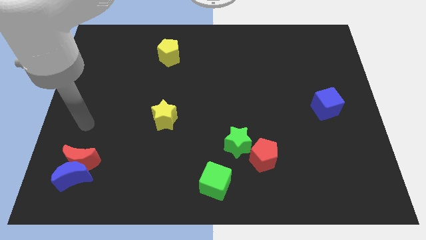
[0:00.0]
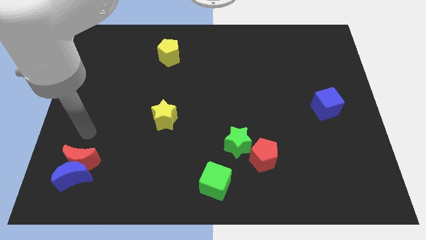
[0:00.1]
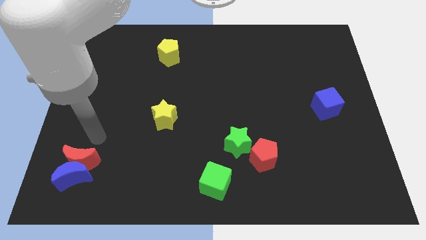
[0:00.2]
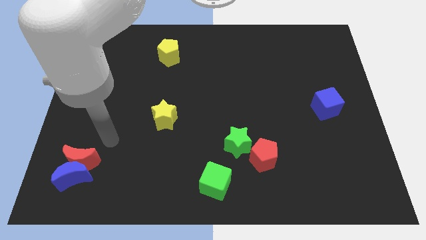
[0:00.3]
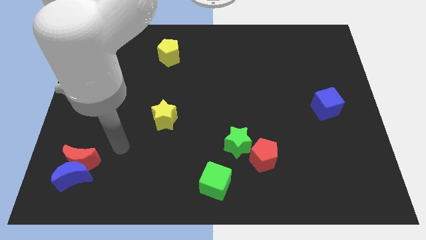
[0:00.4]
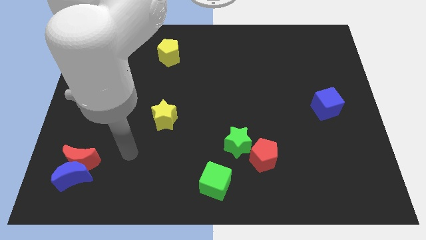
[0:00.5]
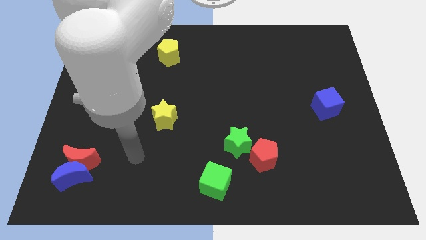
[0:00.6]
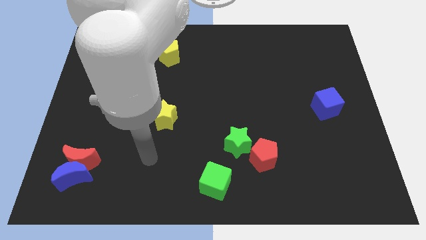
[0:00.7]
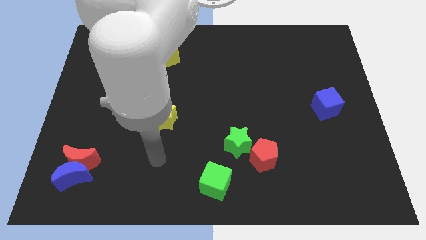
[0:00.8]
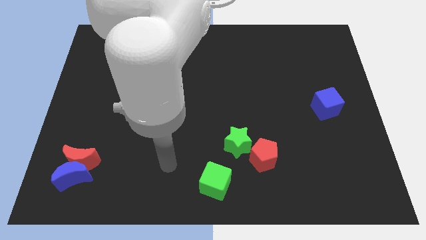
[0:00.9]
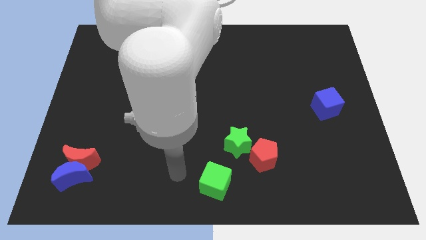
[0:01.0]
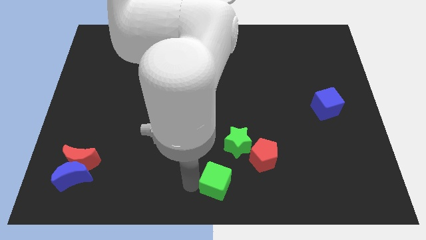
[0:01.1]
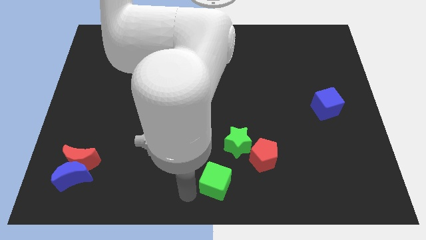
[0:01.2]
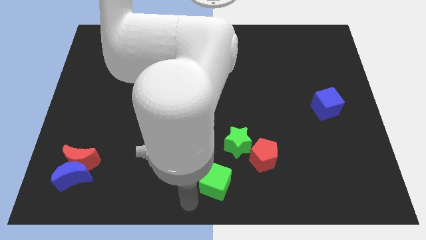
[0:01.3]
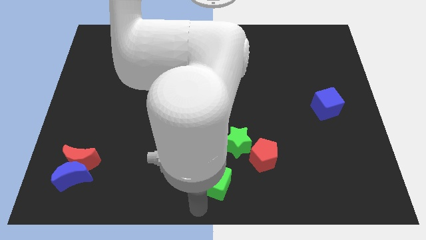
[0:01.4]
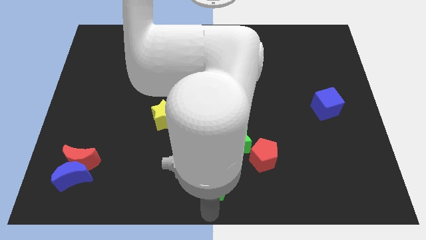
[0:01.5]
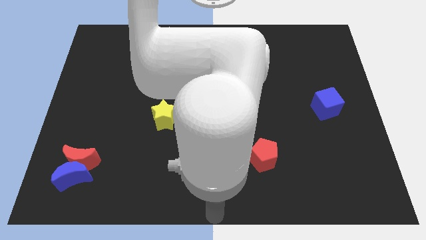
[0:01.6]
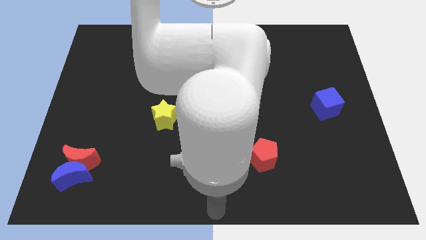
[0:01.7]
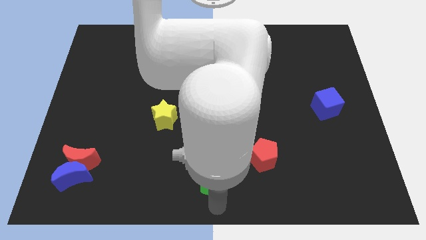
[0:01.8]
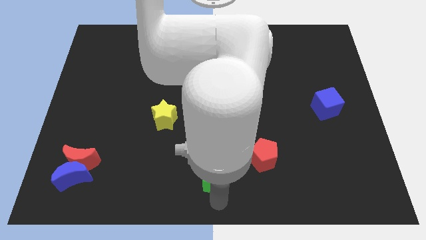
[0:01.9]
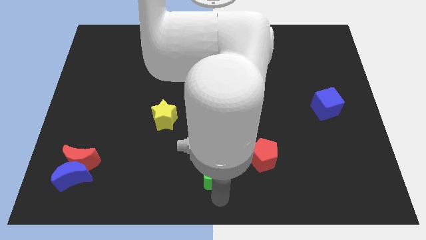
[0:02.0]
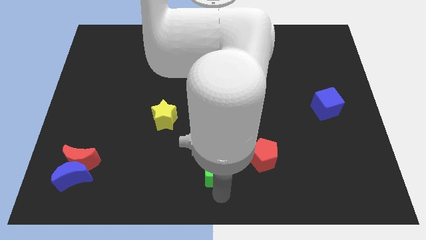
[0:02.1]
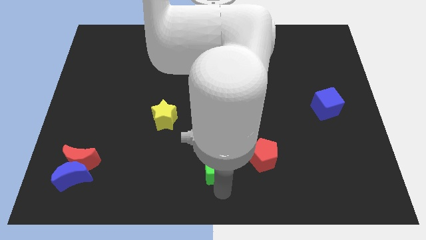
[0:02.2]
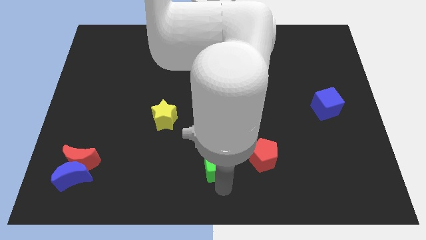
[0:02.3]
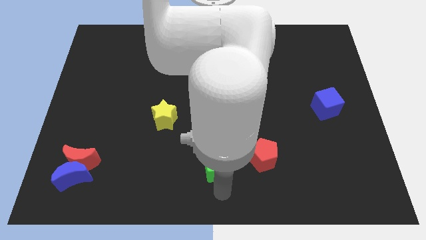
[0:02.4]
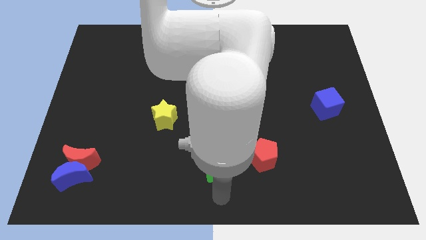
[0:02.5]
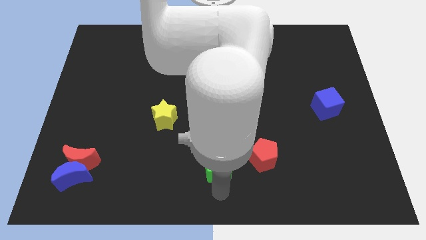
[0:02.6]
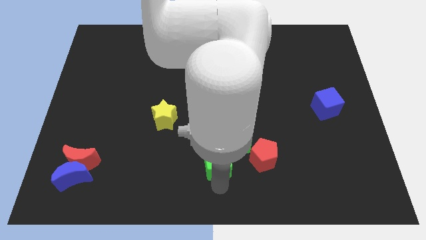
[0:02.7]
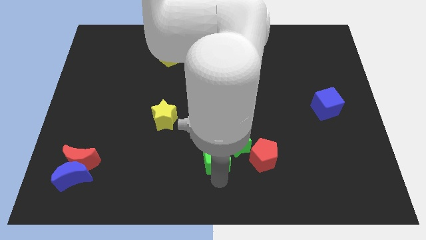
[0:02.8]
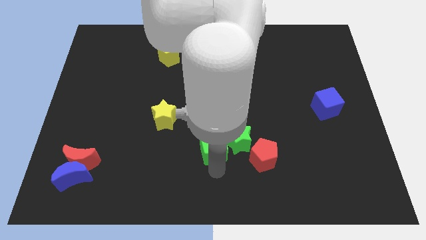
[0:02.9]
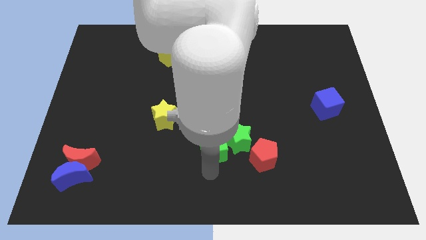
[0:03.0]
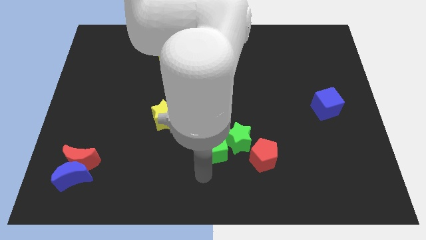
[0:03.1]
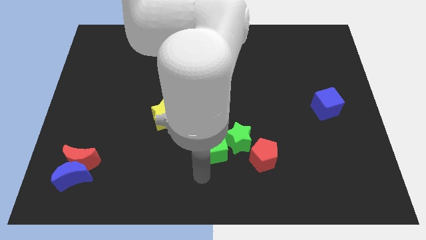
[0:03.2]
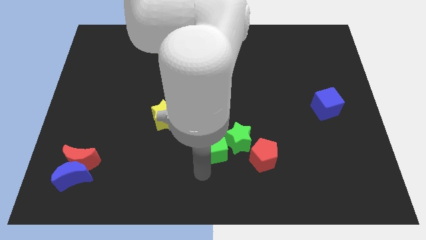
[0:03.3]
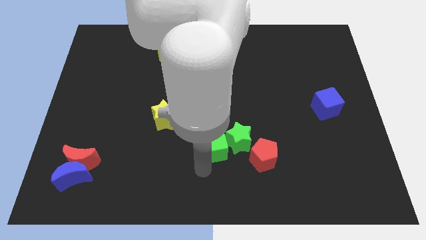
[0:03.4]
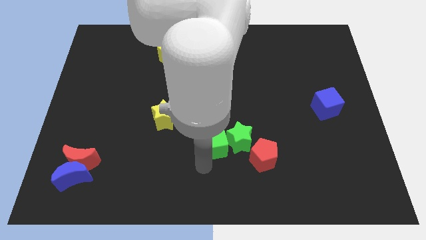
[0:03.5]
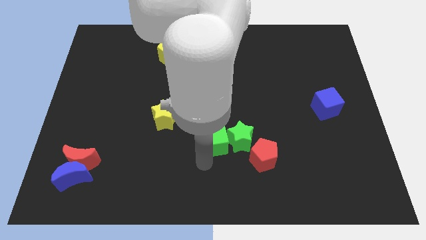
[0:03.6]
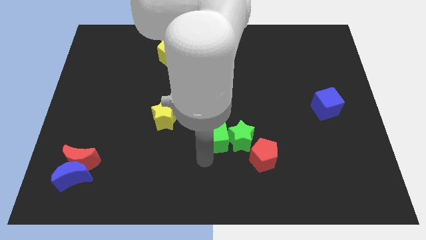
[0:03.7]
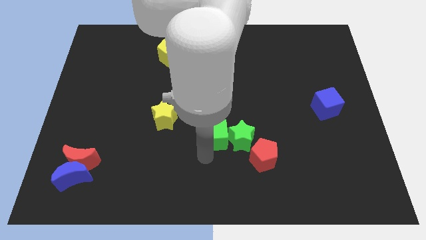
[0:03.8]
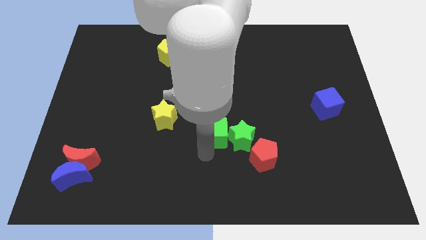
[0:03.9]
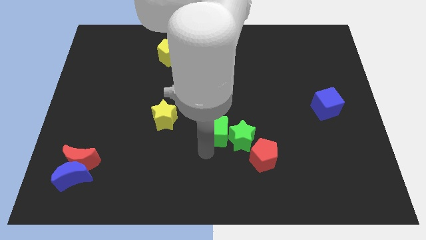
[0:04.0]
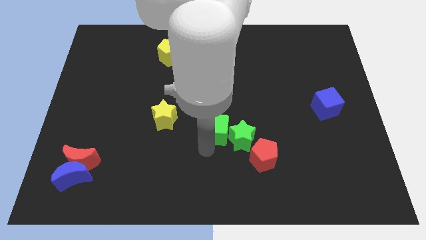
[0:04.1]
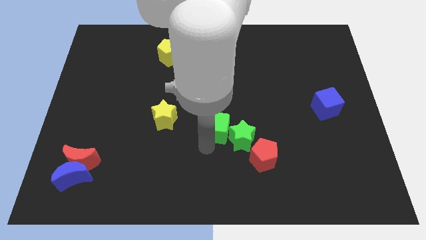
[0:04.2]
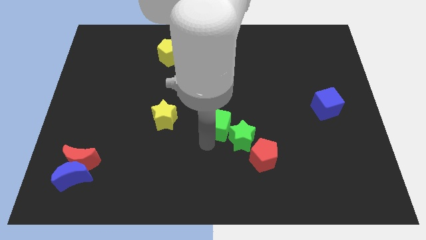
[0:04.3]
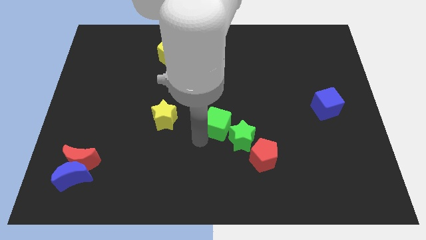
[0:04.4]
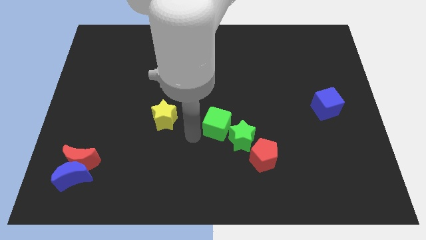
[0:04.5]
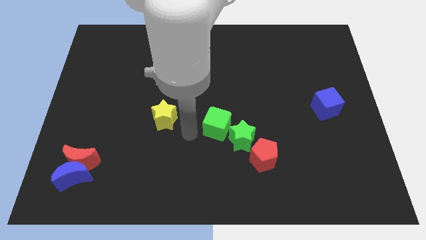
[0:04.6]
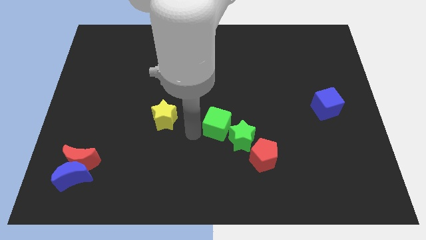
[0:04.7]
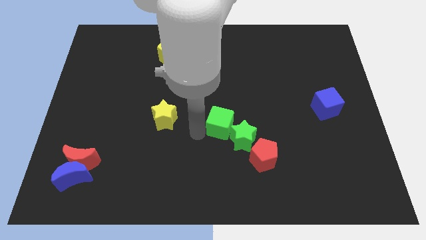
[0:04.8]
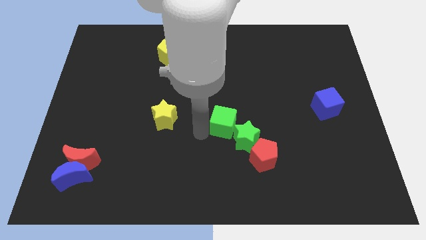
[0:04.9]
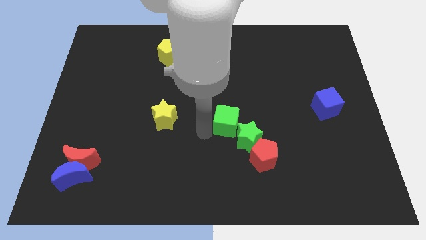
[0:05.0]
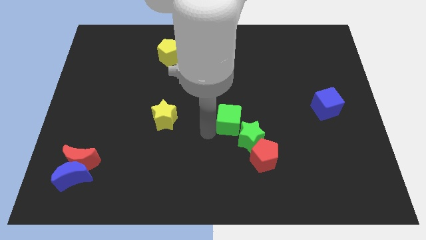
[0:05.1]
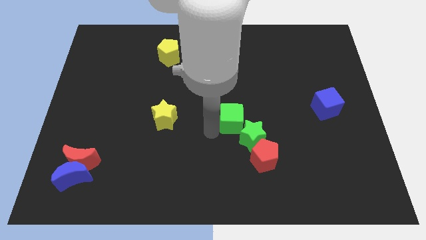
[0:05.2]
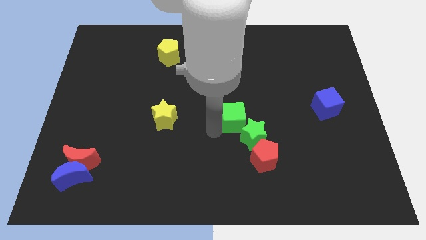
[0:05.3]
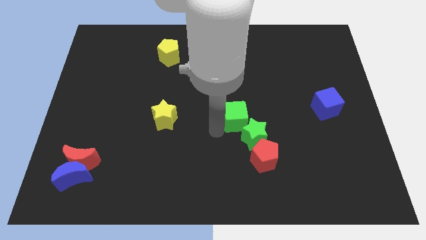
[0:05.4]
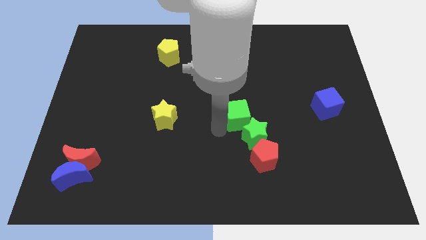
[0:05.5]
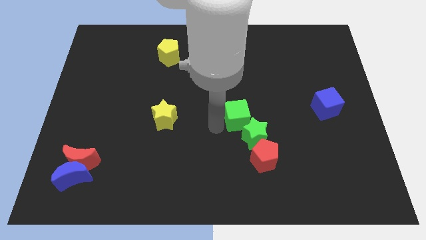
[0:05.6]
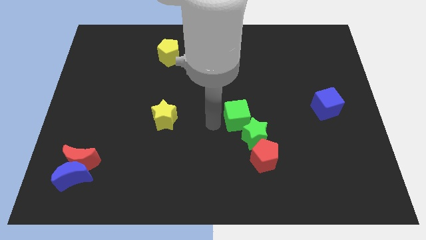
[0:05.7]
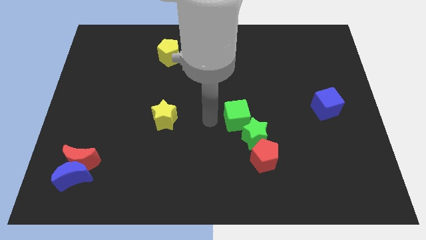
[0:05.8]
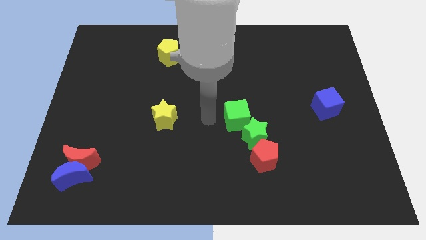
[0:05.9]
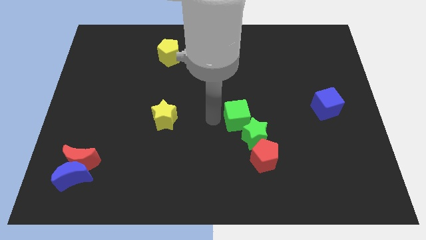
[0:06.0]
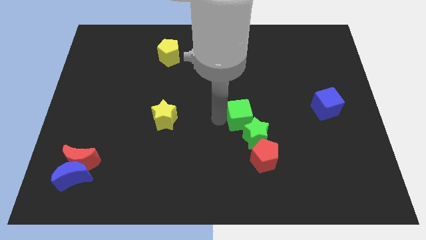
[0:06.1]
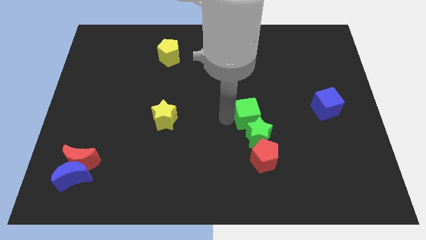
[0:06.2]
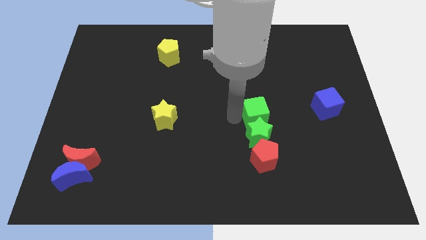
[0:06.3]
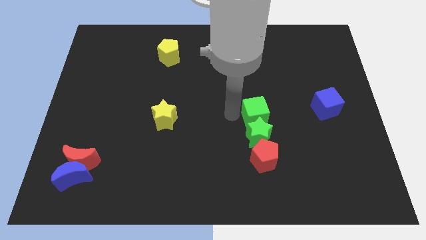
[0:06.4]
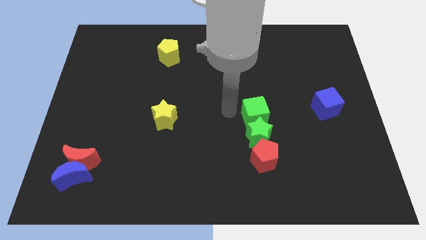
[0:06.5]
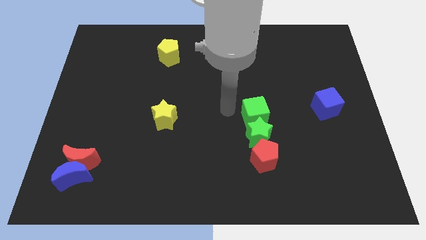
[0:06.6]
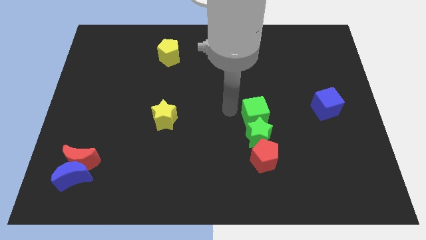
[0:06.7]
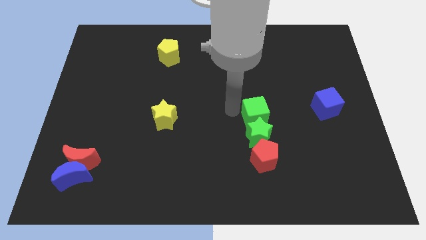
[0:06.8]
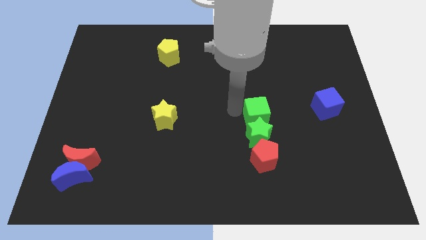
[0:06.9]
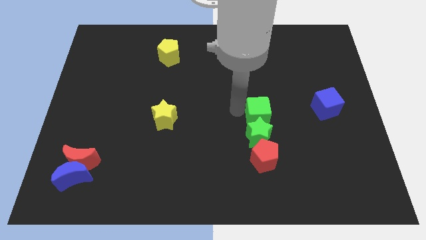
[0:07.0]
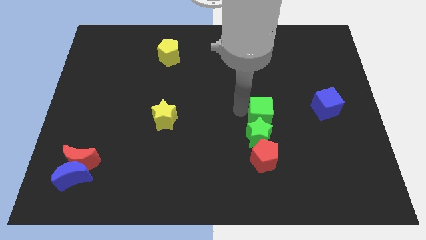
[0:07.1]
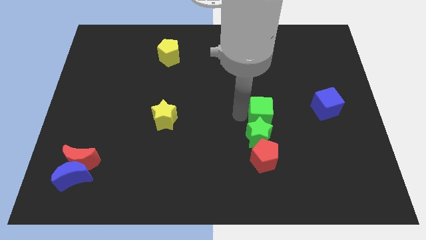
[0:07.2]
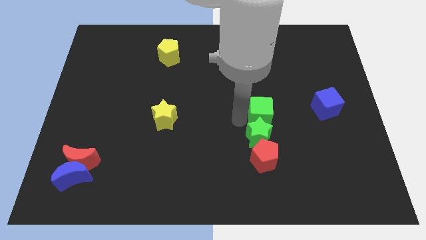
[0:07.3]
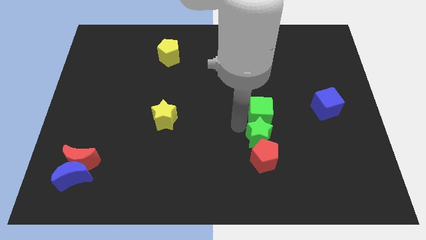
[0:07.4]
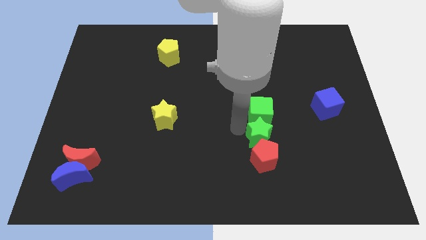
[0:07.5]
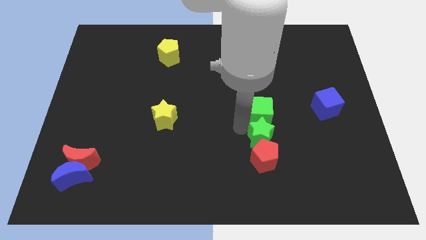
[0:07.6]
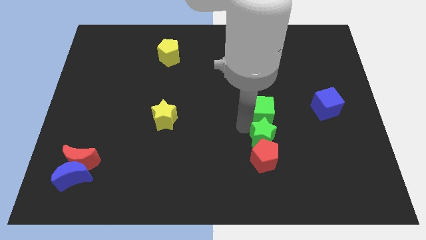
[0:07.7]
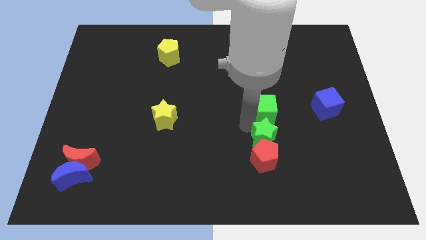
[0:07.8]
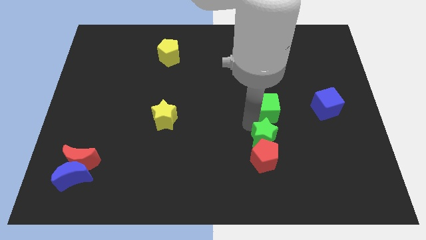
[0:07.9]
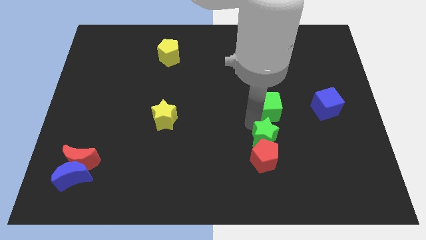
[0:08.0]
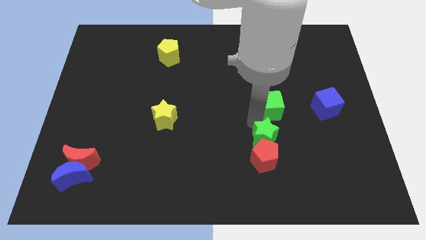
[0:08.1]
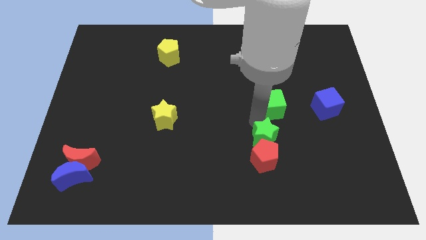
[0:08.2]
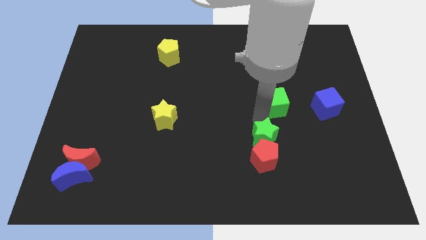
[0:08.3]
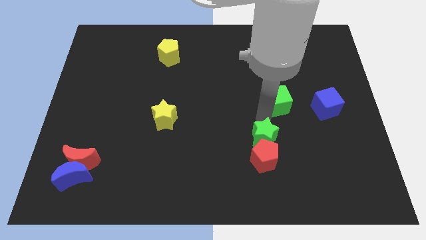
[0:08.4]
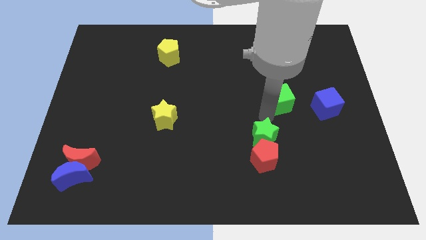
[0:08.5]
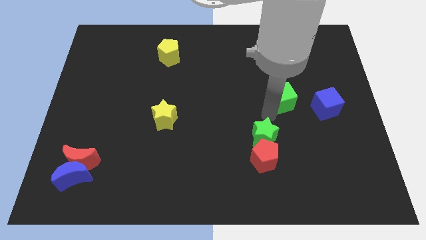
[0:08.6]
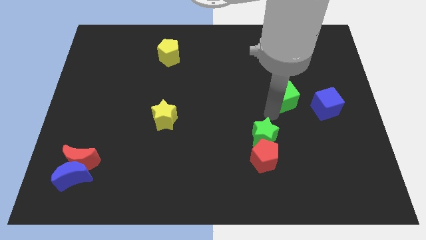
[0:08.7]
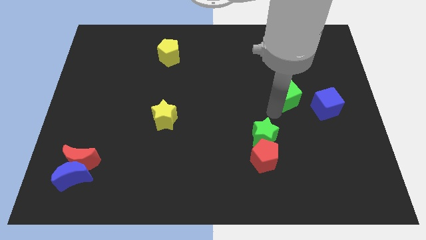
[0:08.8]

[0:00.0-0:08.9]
slide the green cube to the top left side of the blue cube
